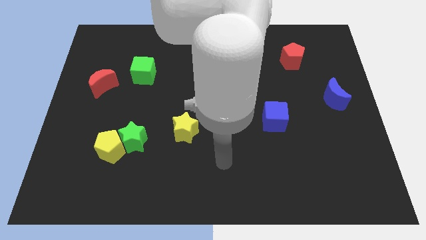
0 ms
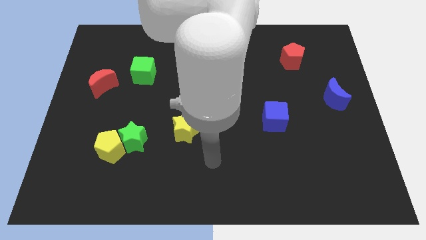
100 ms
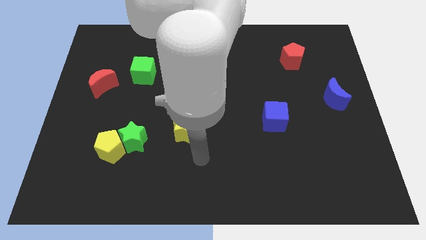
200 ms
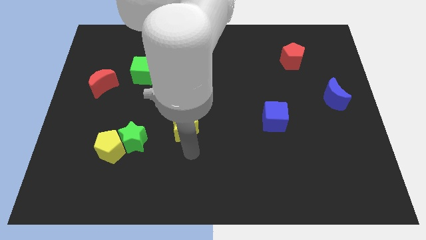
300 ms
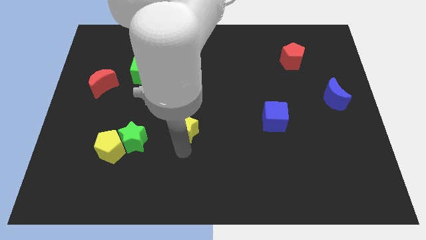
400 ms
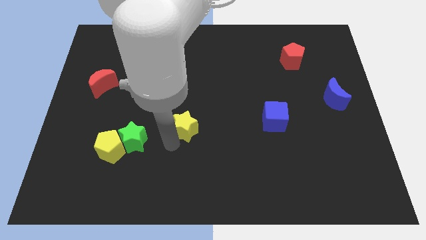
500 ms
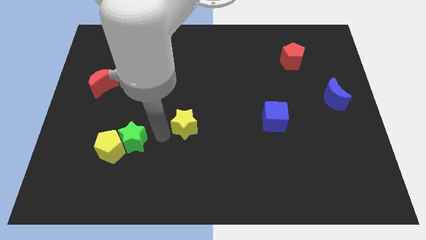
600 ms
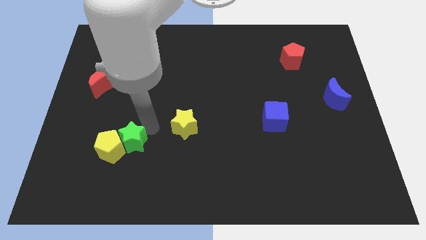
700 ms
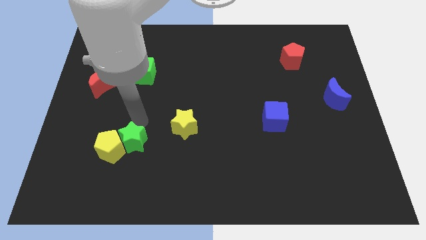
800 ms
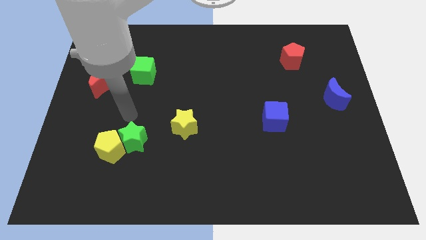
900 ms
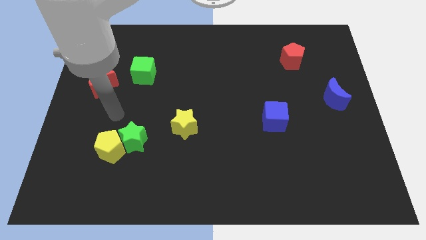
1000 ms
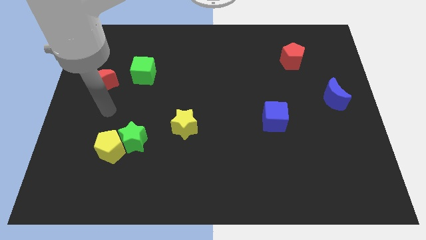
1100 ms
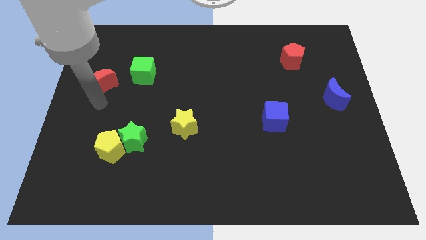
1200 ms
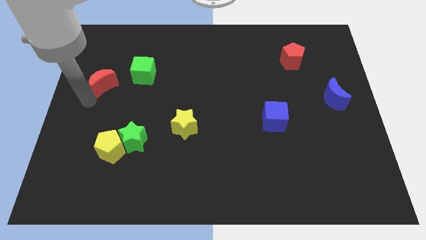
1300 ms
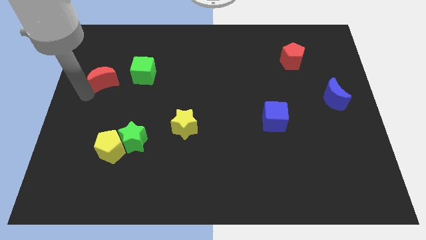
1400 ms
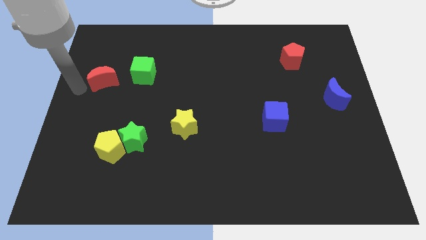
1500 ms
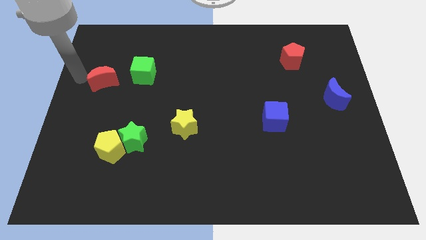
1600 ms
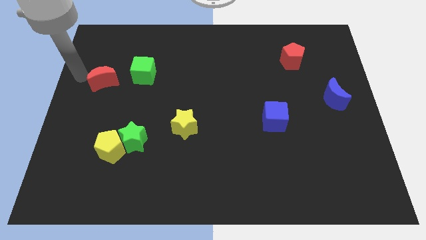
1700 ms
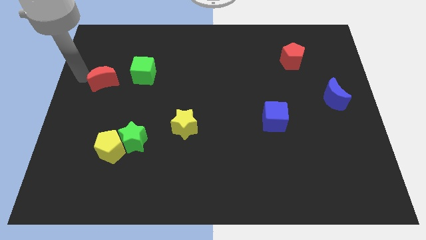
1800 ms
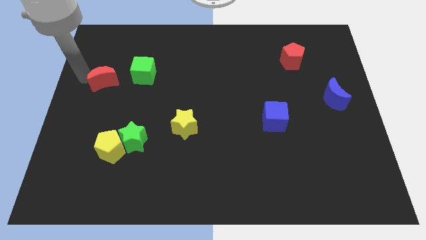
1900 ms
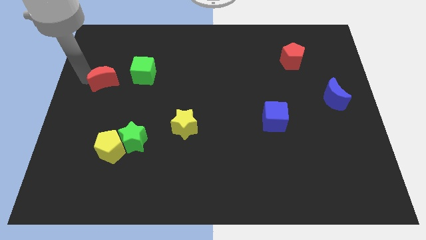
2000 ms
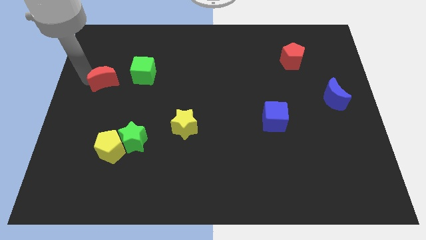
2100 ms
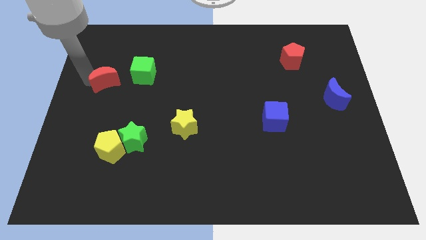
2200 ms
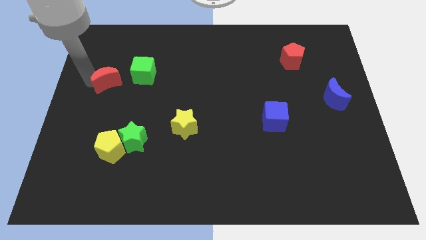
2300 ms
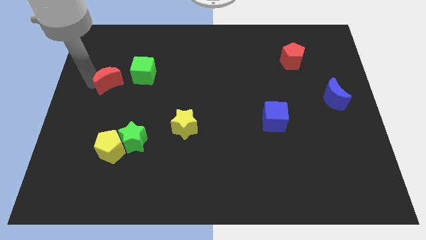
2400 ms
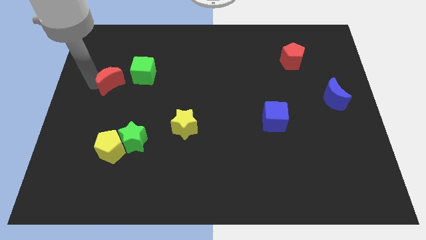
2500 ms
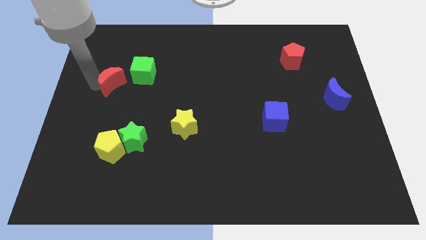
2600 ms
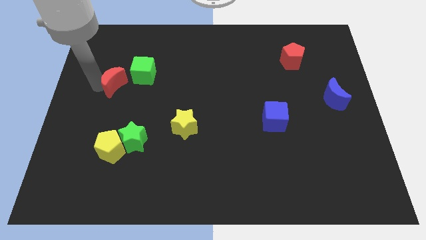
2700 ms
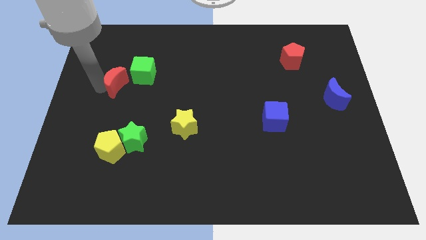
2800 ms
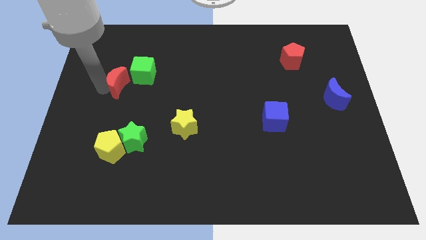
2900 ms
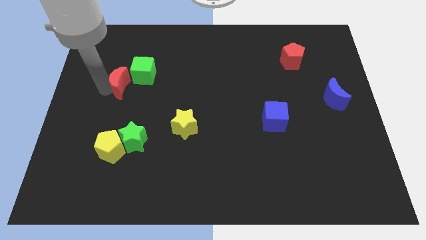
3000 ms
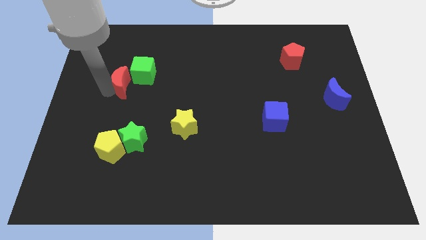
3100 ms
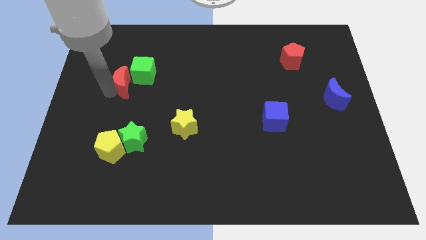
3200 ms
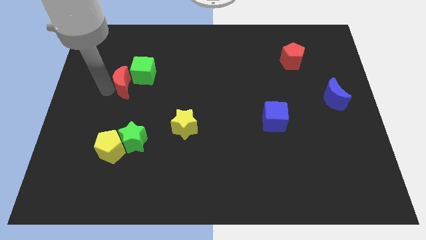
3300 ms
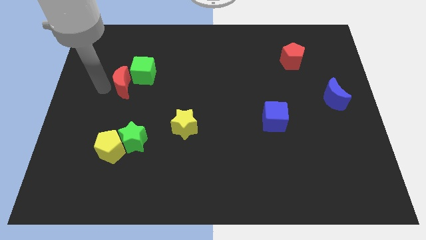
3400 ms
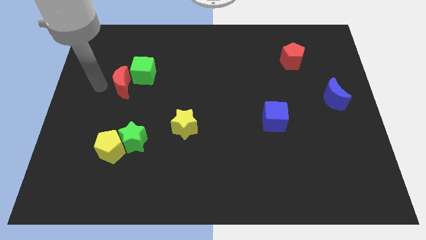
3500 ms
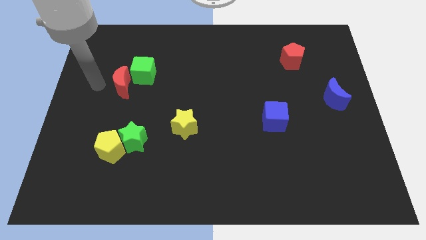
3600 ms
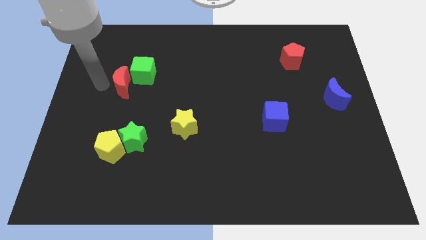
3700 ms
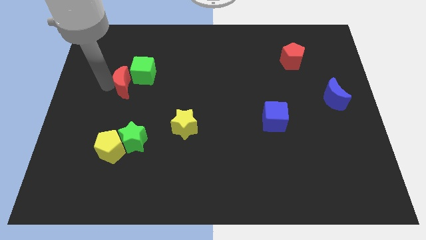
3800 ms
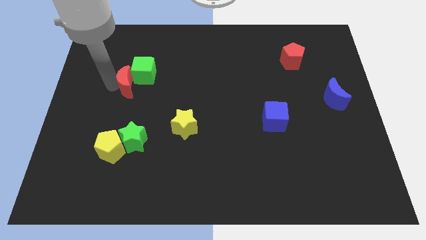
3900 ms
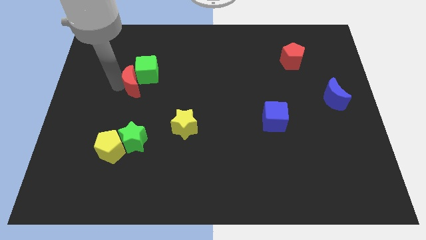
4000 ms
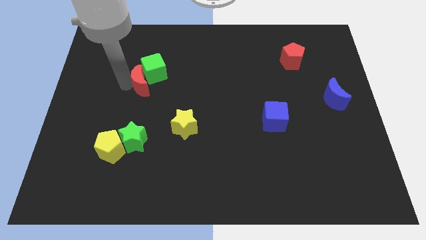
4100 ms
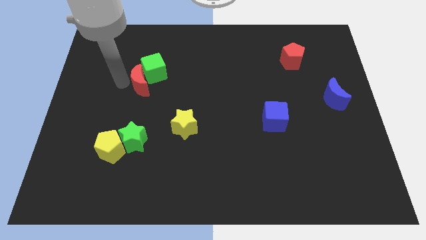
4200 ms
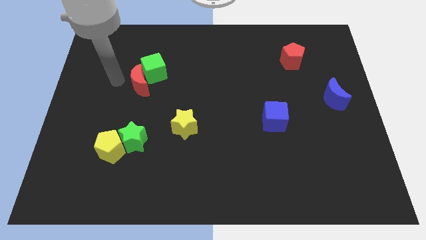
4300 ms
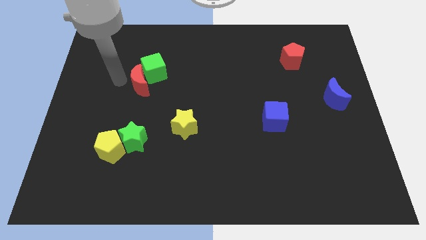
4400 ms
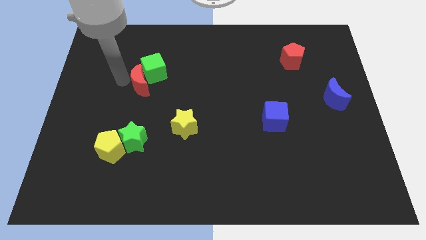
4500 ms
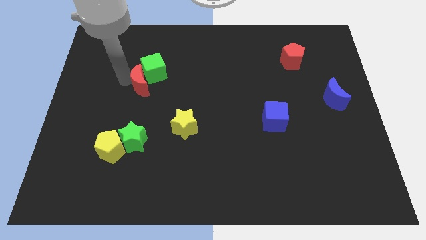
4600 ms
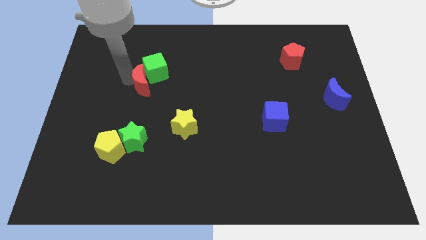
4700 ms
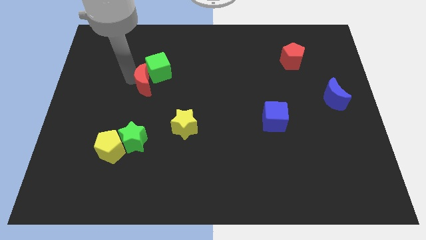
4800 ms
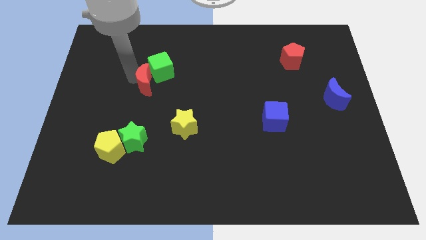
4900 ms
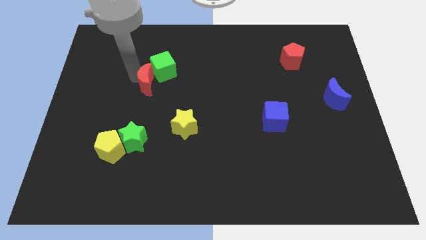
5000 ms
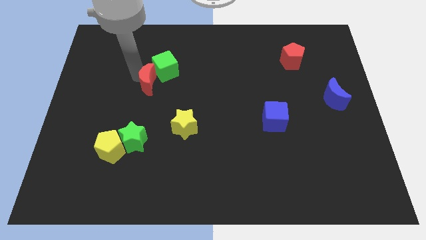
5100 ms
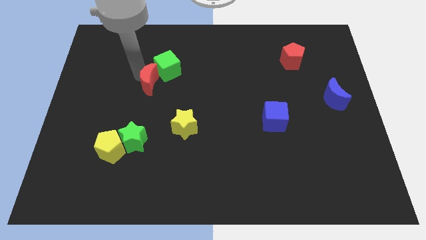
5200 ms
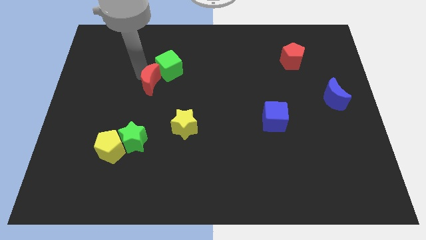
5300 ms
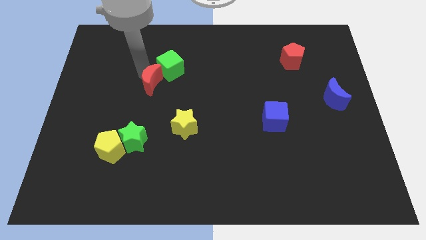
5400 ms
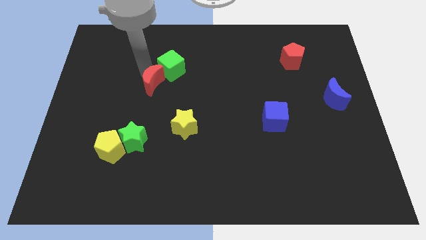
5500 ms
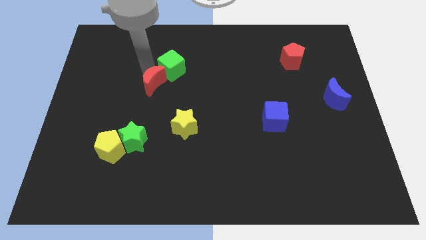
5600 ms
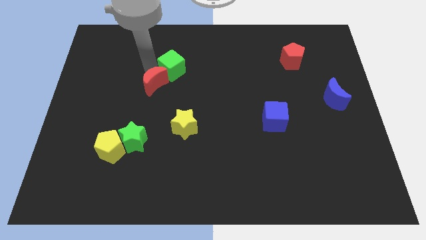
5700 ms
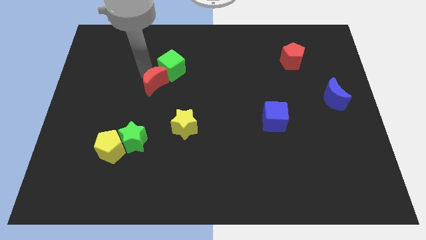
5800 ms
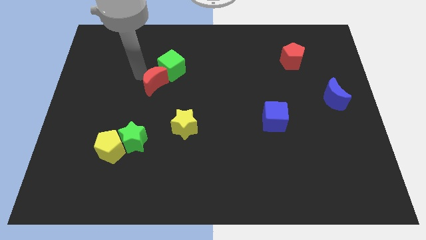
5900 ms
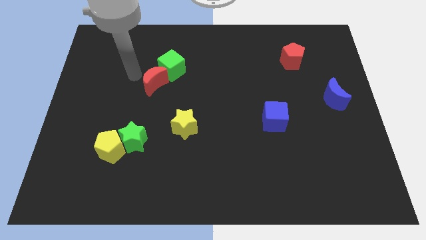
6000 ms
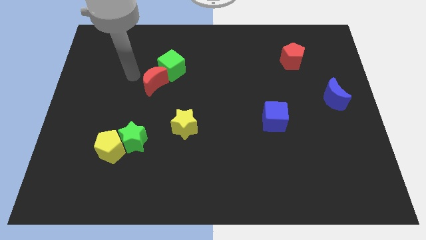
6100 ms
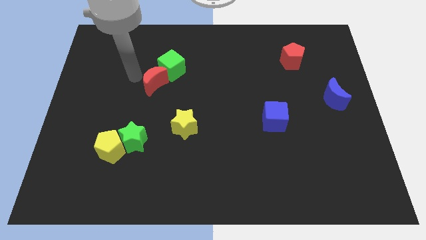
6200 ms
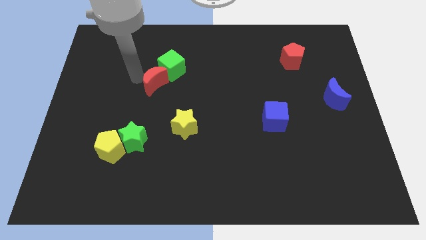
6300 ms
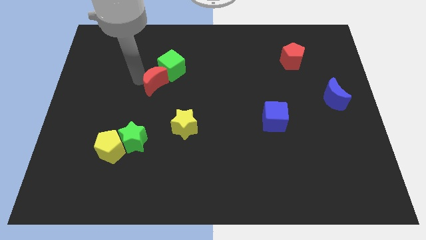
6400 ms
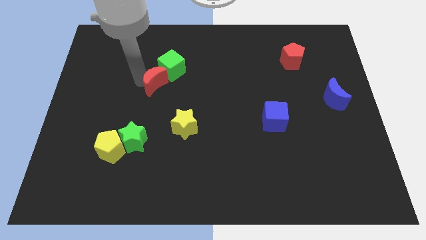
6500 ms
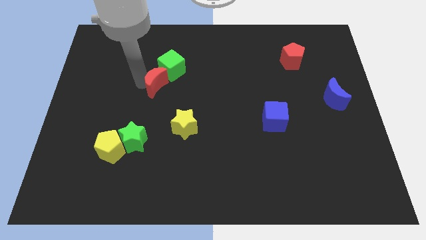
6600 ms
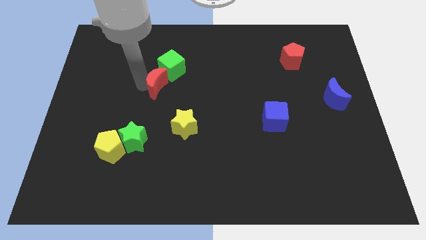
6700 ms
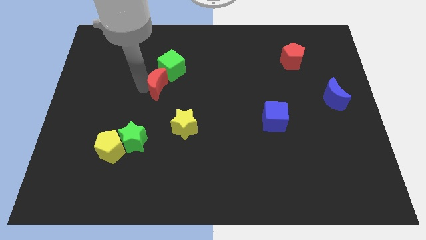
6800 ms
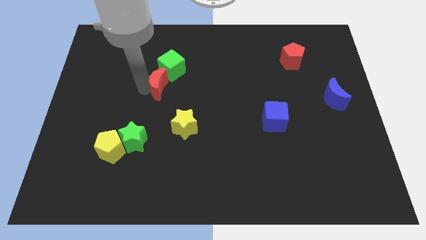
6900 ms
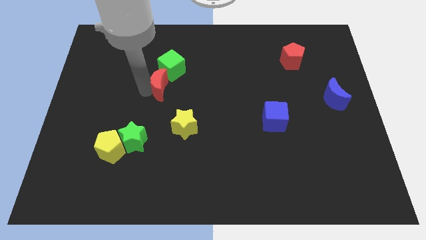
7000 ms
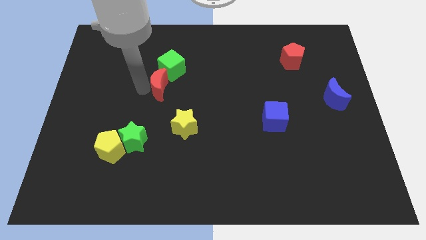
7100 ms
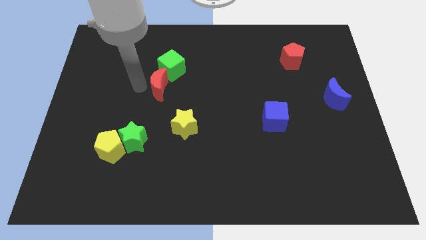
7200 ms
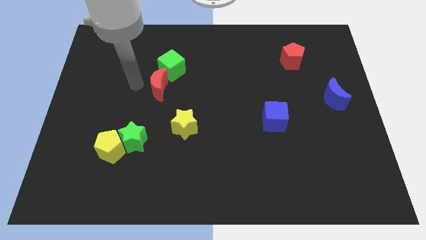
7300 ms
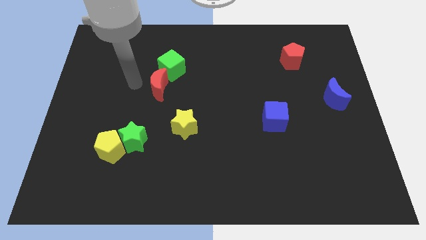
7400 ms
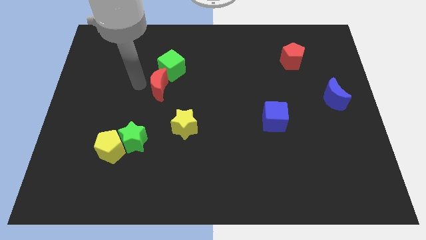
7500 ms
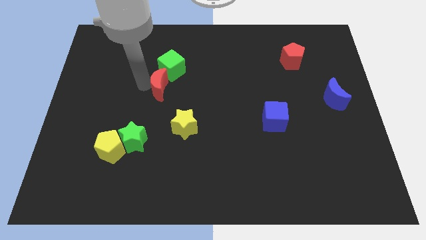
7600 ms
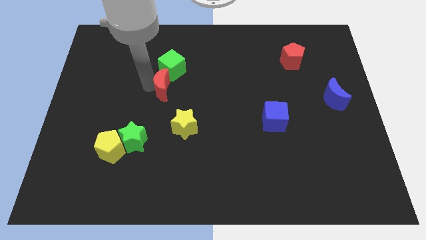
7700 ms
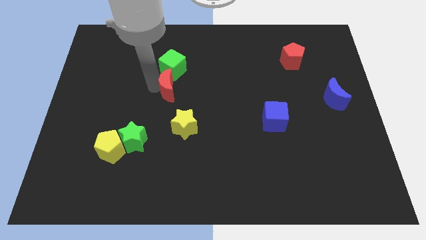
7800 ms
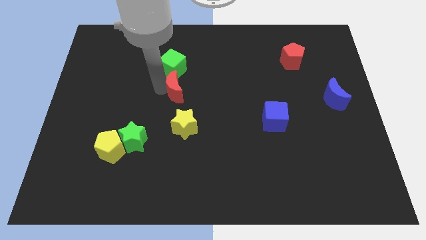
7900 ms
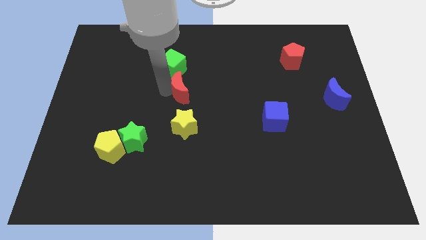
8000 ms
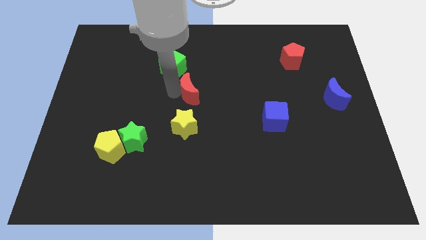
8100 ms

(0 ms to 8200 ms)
move the red moon to the right
